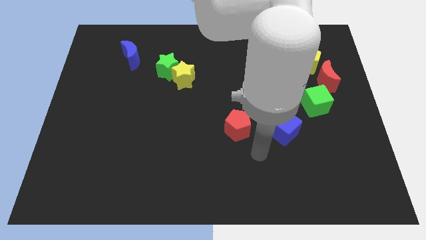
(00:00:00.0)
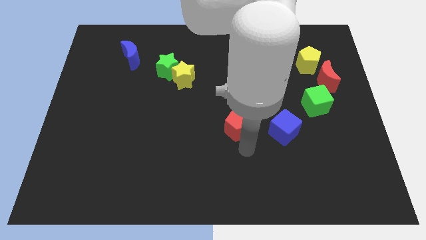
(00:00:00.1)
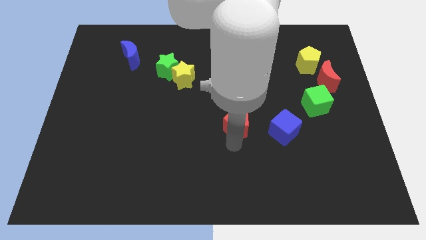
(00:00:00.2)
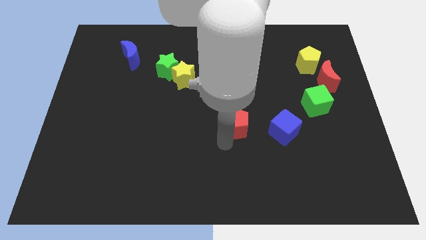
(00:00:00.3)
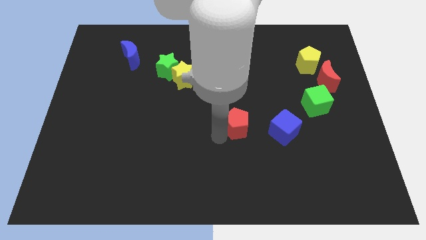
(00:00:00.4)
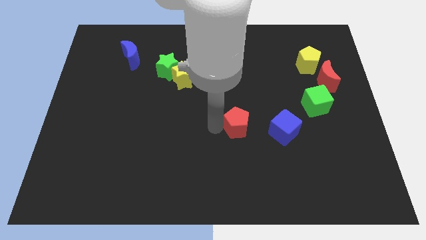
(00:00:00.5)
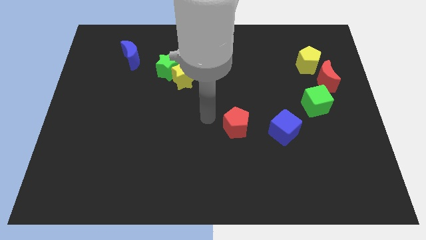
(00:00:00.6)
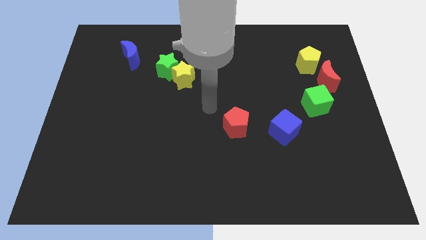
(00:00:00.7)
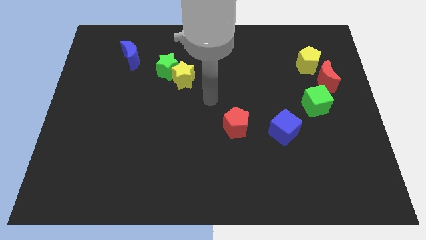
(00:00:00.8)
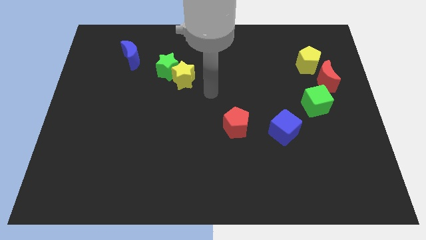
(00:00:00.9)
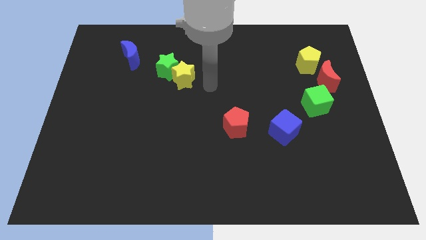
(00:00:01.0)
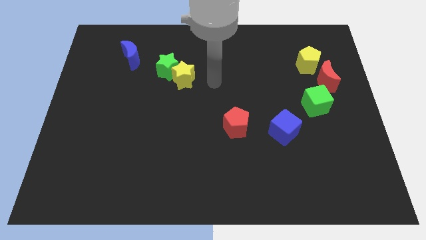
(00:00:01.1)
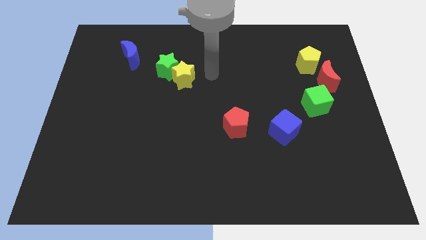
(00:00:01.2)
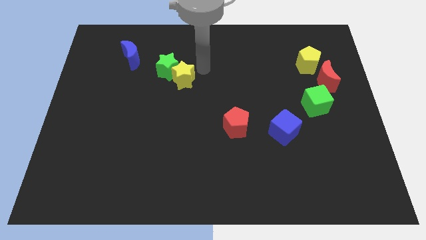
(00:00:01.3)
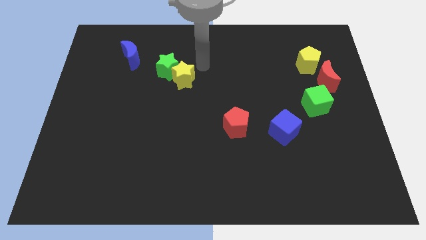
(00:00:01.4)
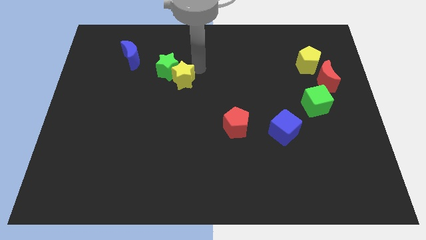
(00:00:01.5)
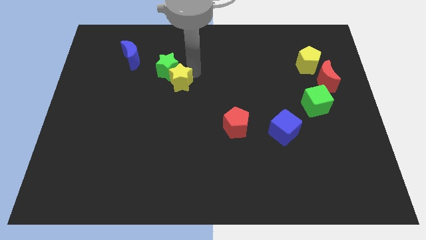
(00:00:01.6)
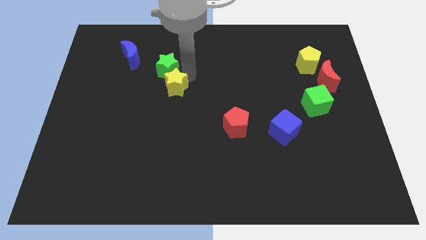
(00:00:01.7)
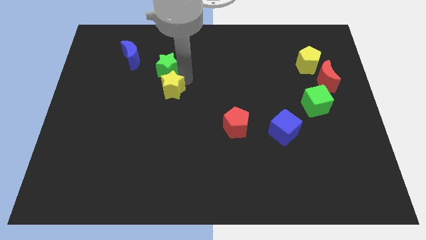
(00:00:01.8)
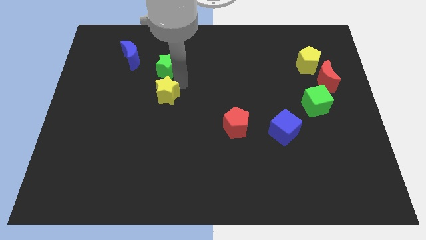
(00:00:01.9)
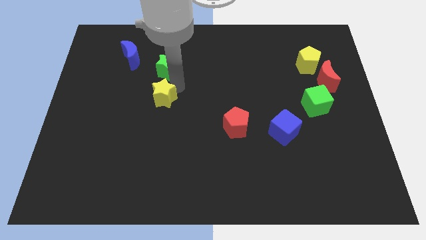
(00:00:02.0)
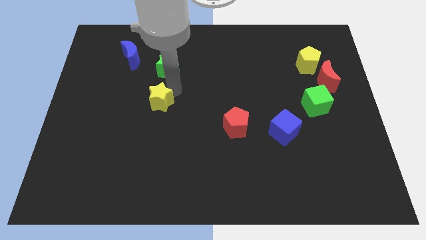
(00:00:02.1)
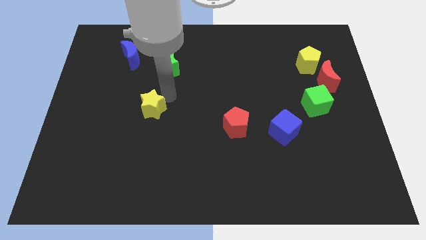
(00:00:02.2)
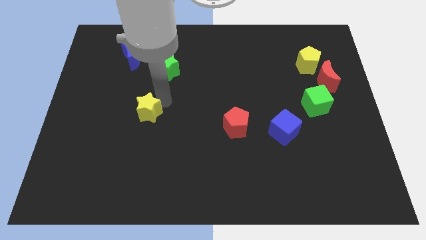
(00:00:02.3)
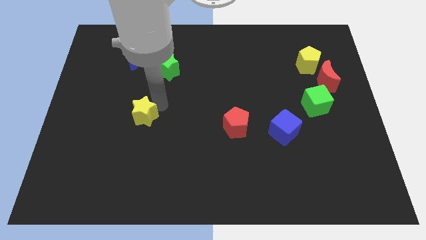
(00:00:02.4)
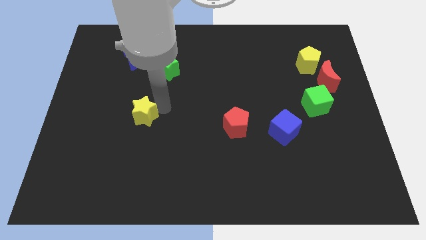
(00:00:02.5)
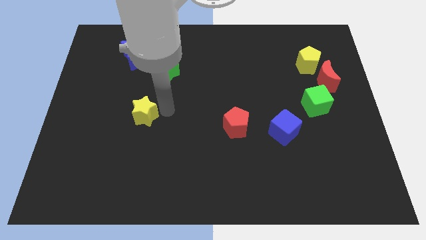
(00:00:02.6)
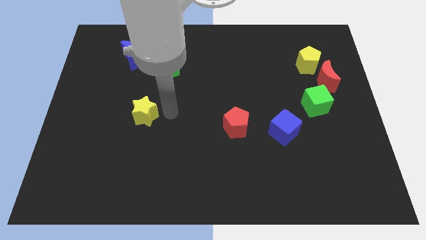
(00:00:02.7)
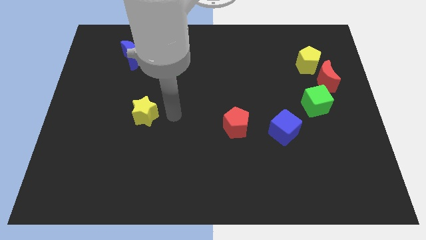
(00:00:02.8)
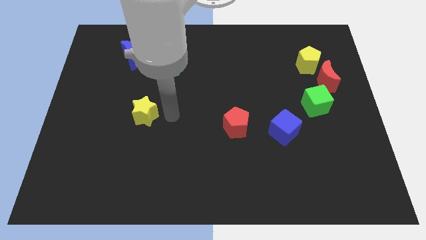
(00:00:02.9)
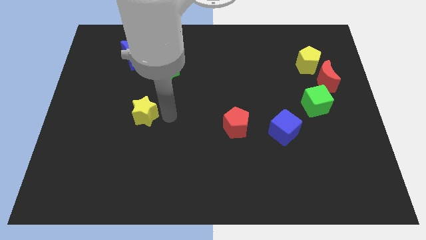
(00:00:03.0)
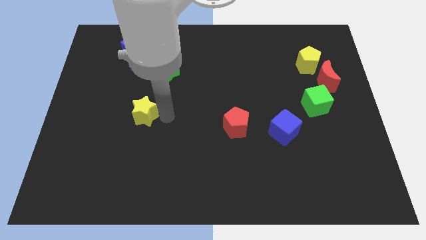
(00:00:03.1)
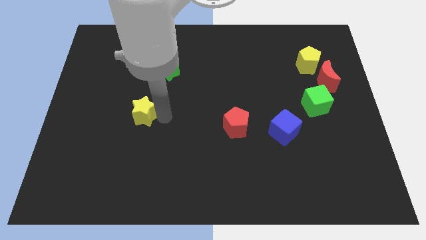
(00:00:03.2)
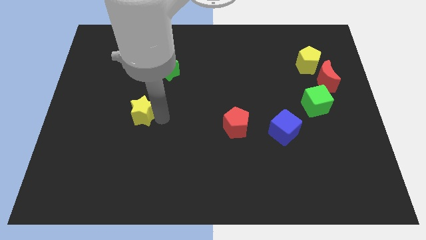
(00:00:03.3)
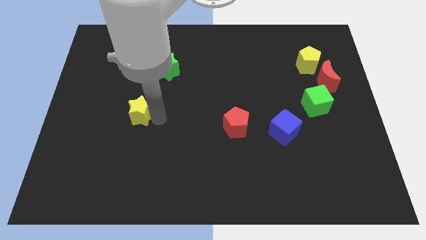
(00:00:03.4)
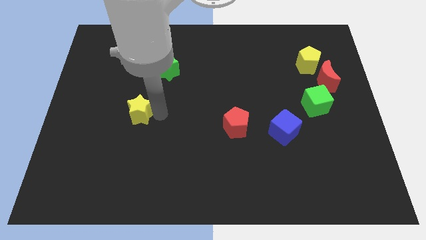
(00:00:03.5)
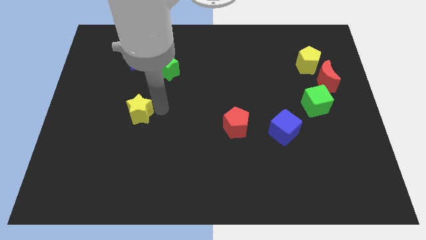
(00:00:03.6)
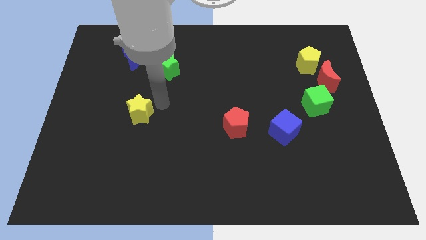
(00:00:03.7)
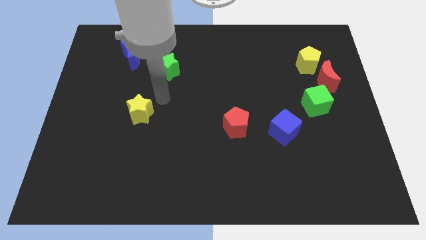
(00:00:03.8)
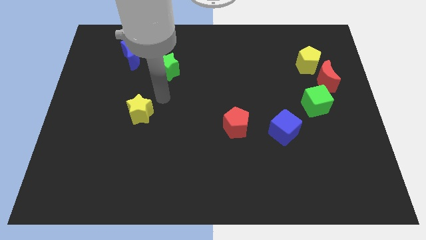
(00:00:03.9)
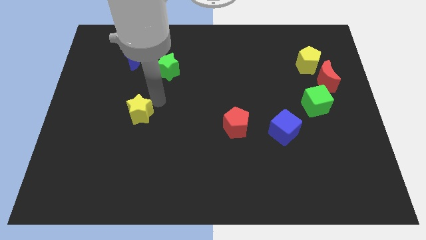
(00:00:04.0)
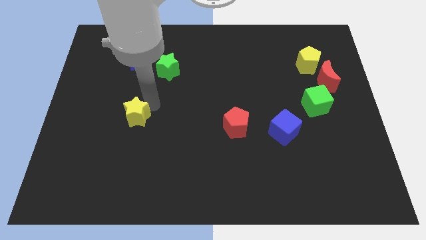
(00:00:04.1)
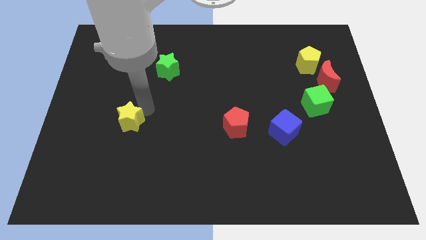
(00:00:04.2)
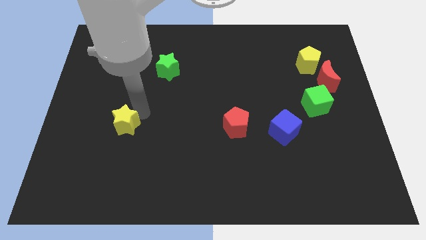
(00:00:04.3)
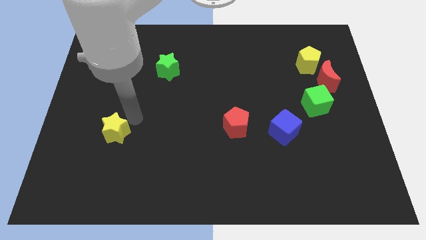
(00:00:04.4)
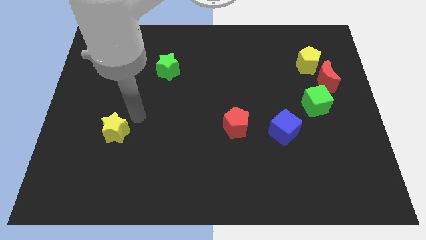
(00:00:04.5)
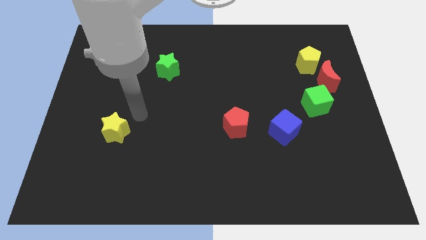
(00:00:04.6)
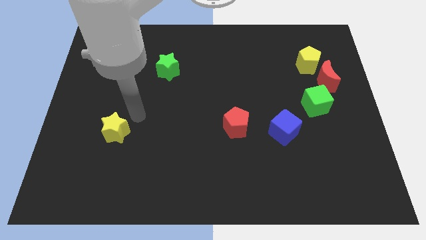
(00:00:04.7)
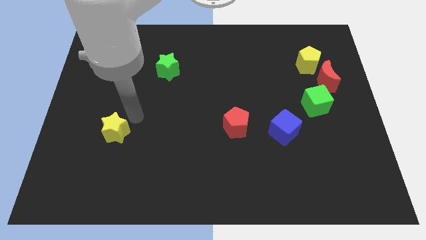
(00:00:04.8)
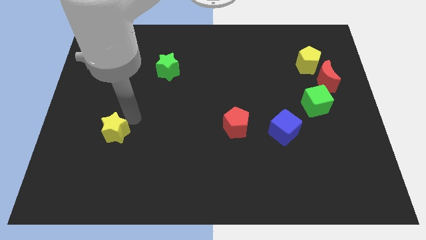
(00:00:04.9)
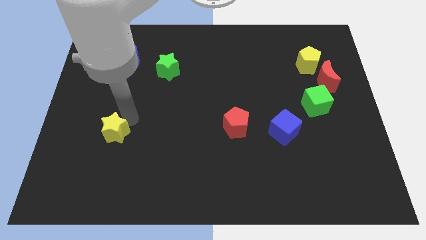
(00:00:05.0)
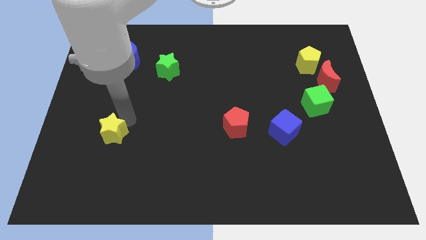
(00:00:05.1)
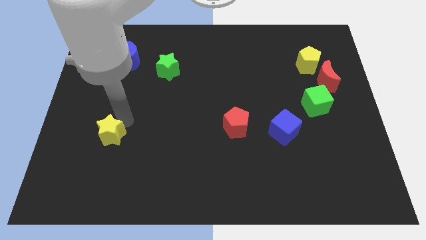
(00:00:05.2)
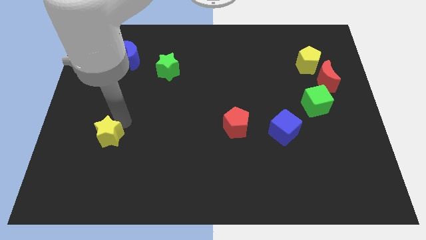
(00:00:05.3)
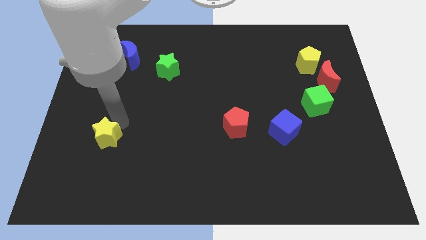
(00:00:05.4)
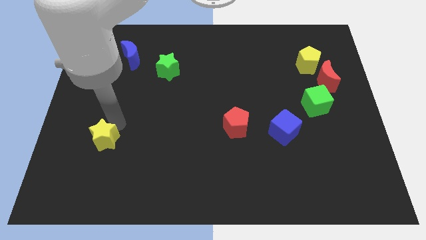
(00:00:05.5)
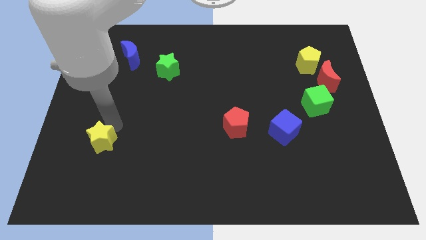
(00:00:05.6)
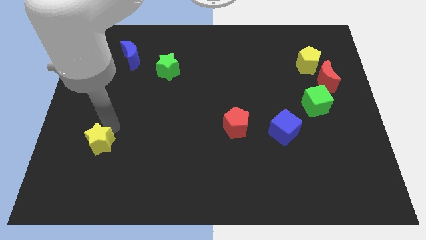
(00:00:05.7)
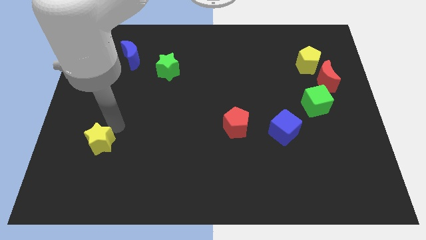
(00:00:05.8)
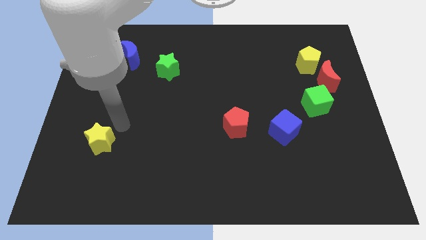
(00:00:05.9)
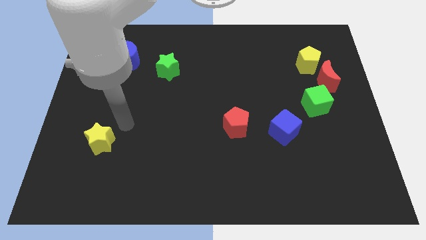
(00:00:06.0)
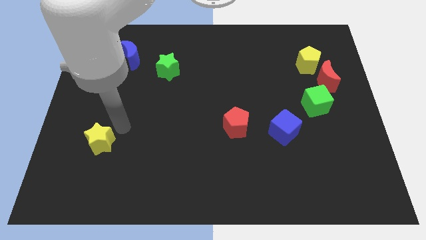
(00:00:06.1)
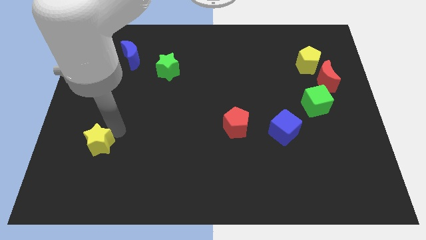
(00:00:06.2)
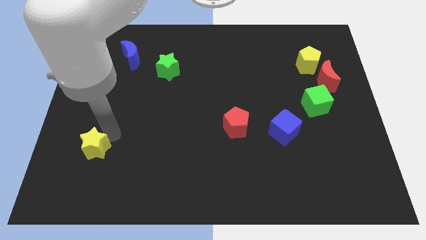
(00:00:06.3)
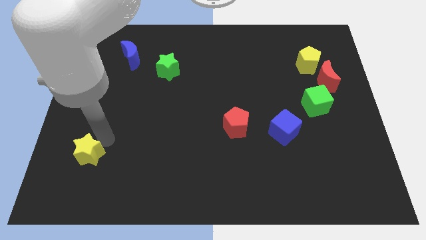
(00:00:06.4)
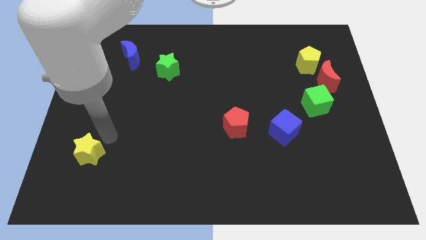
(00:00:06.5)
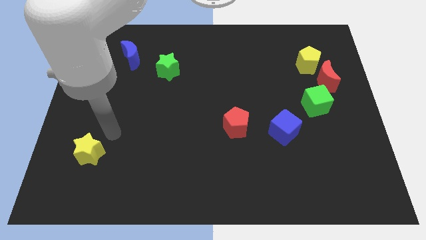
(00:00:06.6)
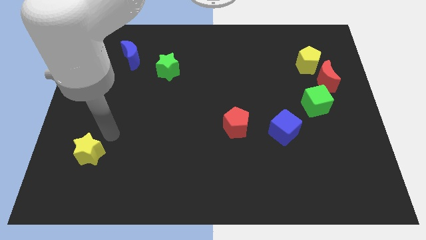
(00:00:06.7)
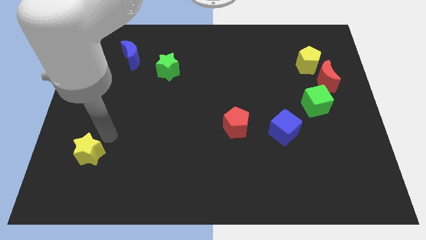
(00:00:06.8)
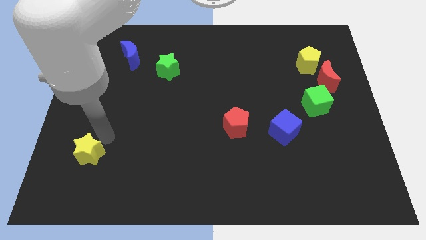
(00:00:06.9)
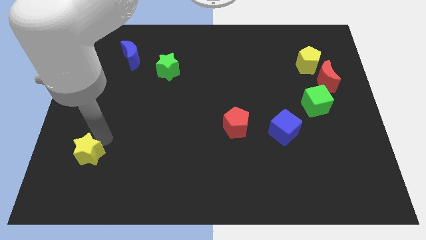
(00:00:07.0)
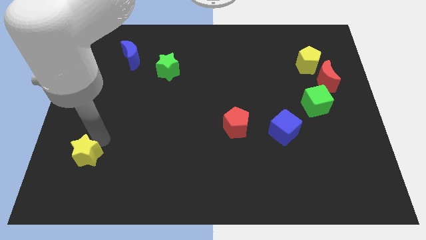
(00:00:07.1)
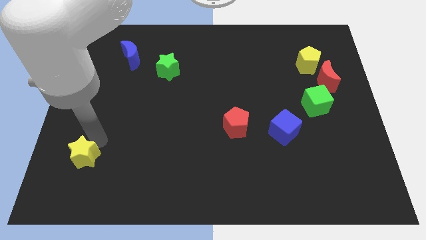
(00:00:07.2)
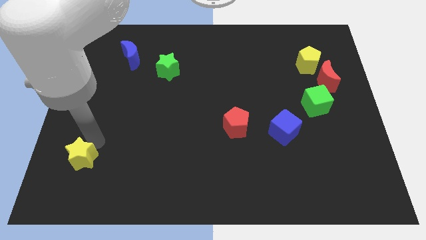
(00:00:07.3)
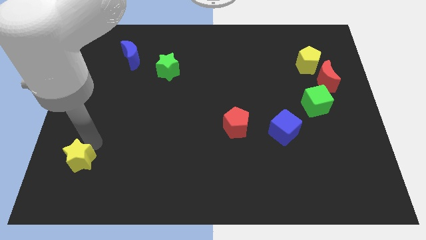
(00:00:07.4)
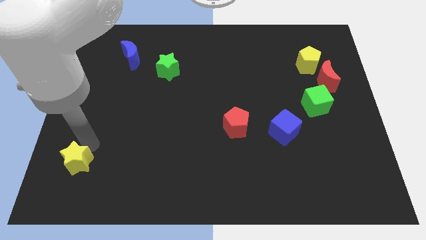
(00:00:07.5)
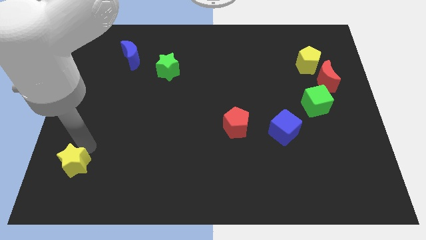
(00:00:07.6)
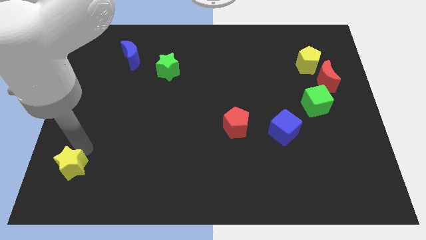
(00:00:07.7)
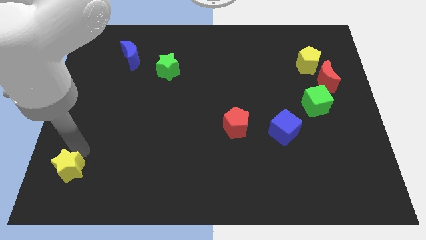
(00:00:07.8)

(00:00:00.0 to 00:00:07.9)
slide the yellow star to the bottom left
